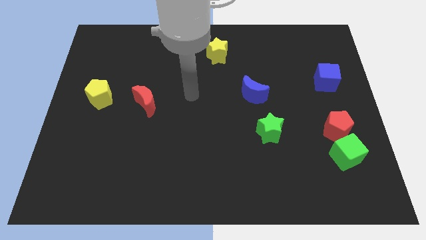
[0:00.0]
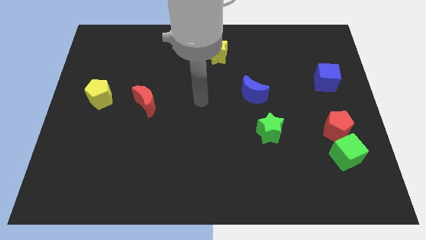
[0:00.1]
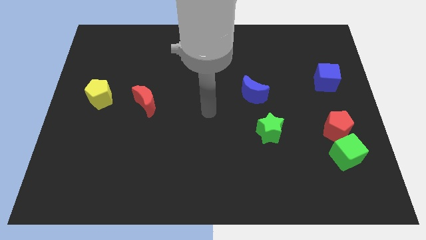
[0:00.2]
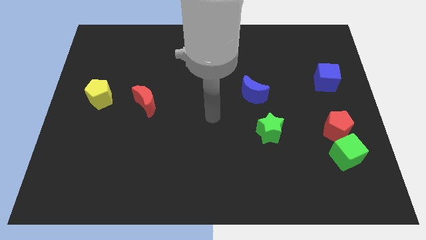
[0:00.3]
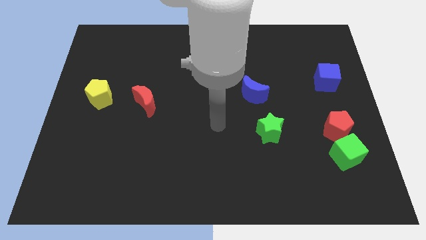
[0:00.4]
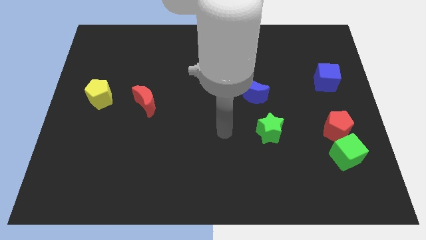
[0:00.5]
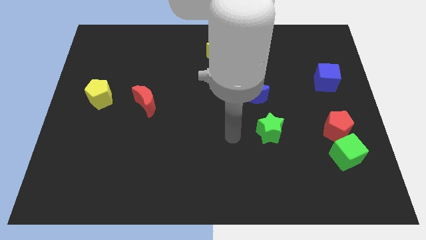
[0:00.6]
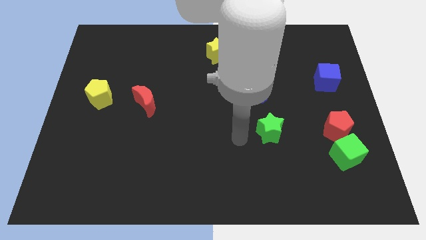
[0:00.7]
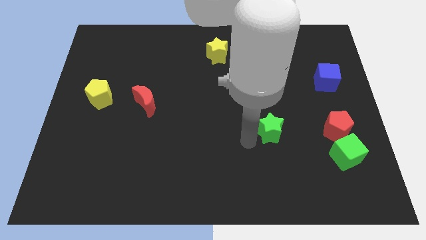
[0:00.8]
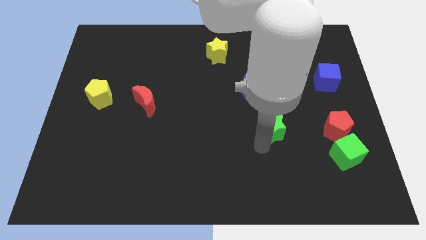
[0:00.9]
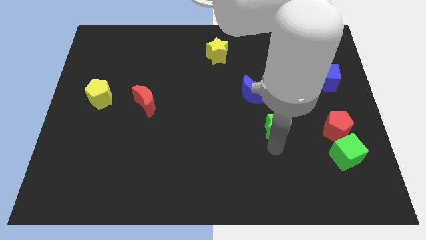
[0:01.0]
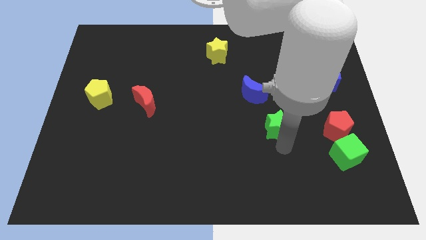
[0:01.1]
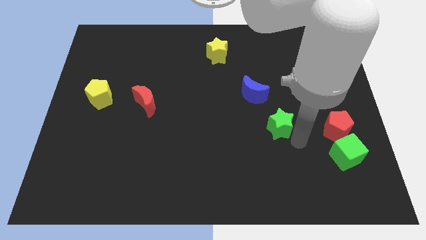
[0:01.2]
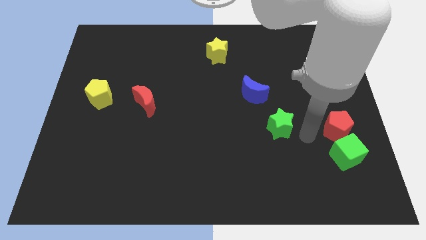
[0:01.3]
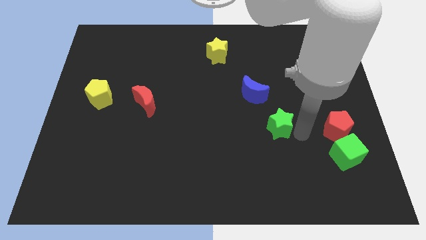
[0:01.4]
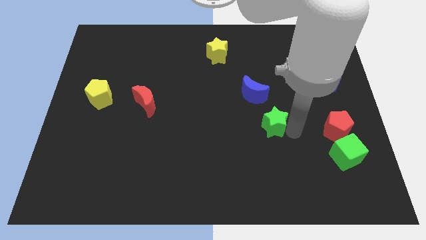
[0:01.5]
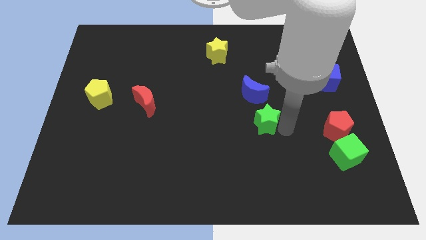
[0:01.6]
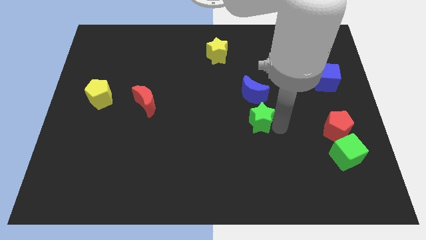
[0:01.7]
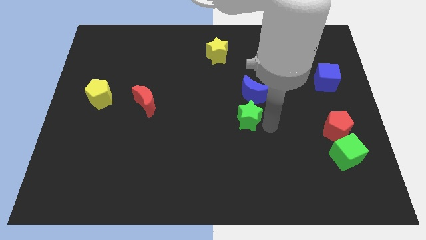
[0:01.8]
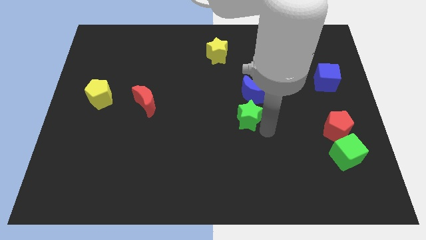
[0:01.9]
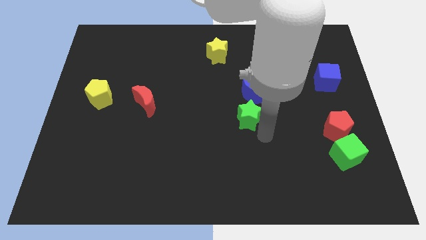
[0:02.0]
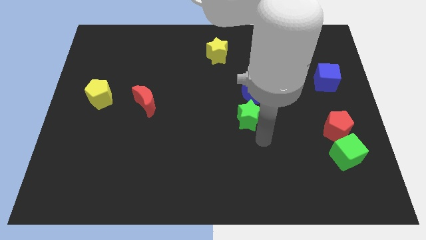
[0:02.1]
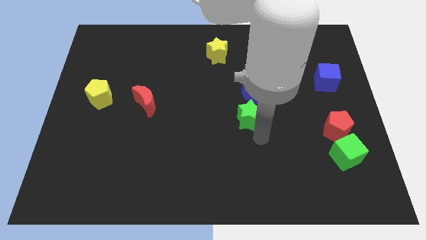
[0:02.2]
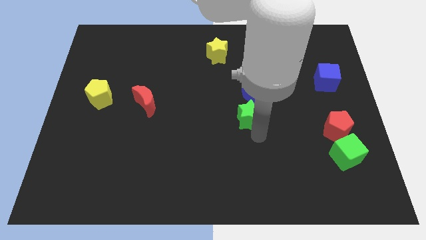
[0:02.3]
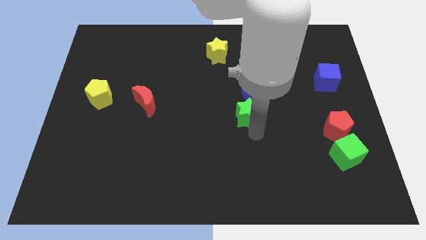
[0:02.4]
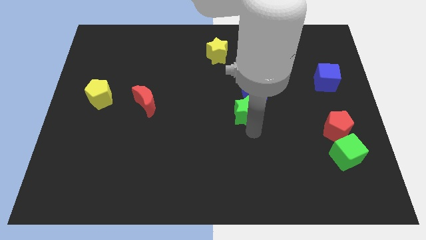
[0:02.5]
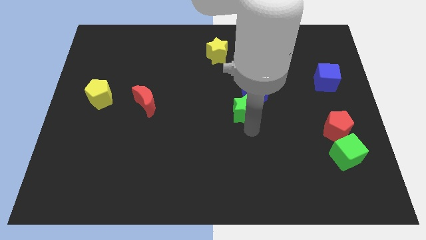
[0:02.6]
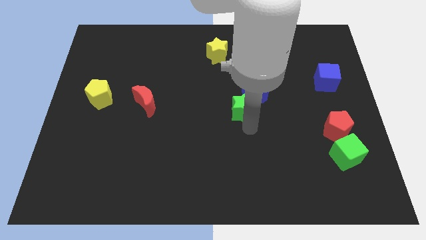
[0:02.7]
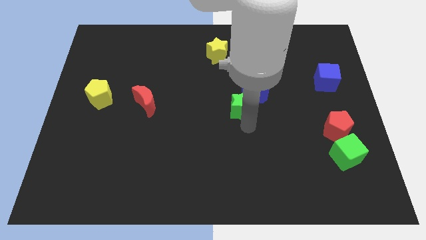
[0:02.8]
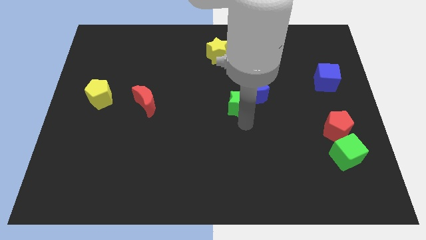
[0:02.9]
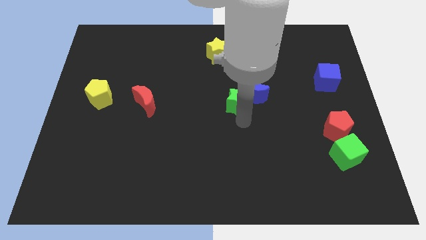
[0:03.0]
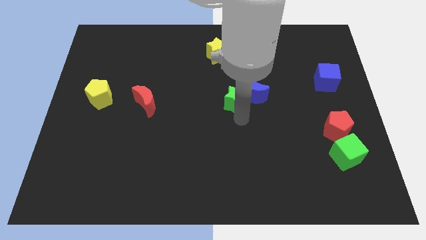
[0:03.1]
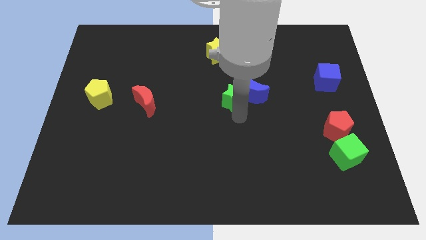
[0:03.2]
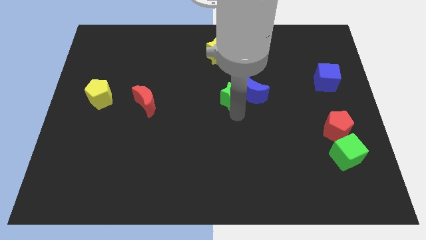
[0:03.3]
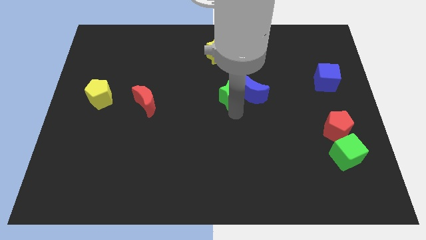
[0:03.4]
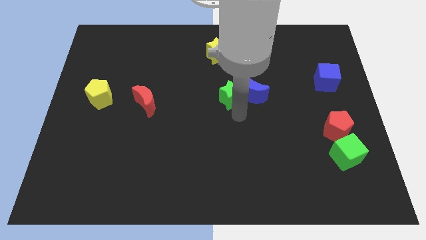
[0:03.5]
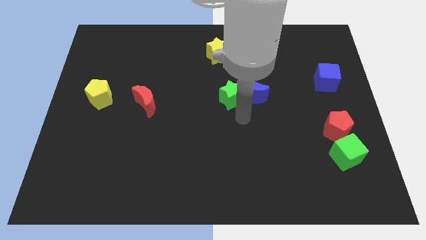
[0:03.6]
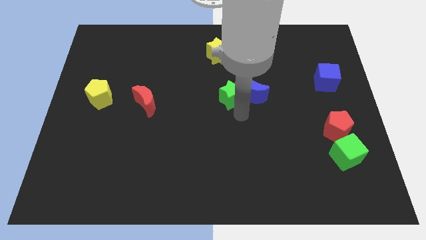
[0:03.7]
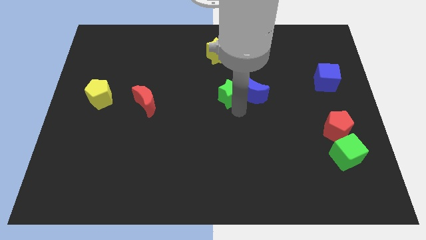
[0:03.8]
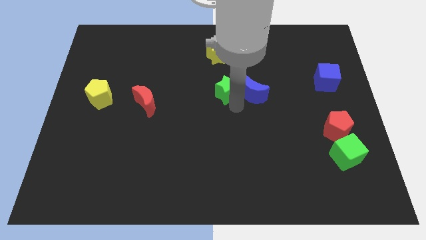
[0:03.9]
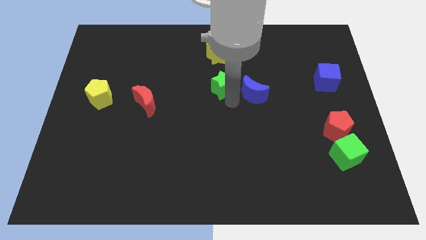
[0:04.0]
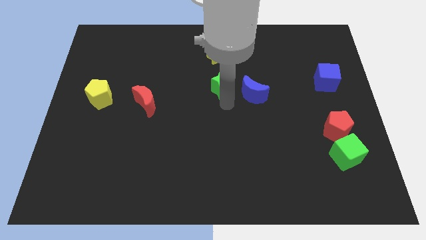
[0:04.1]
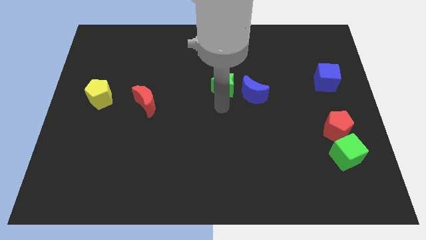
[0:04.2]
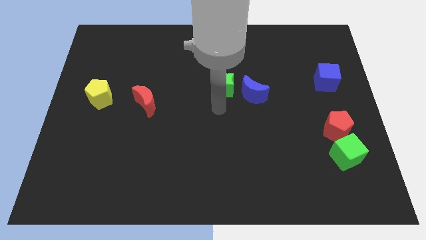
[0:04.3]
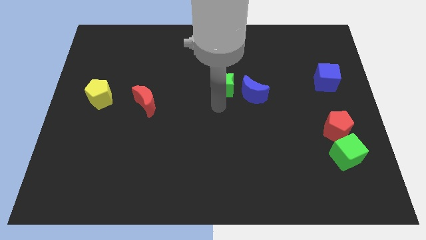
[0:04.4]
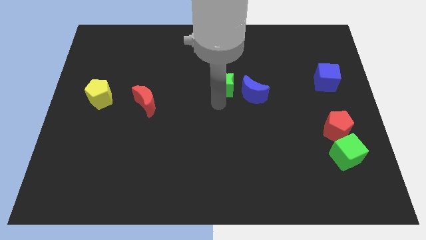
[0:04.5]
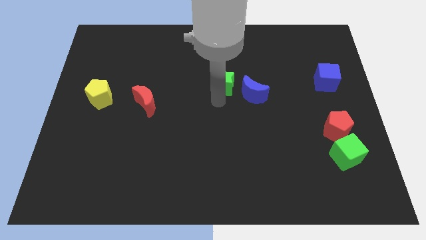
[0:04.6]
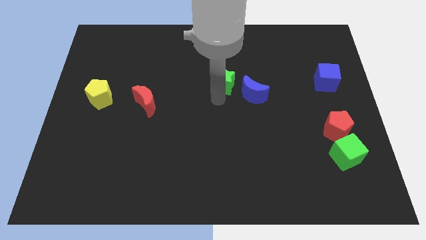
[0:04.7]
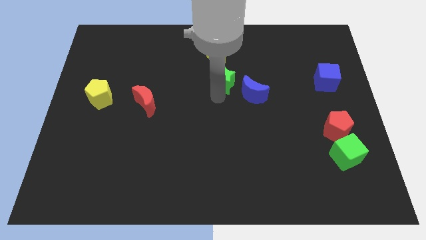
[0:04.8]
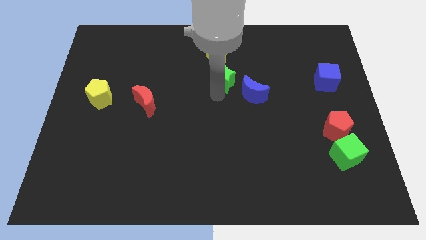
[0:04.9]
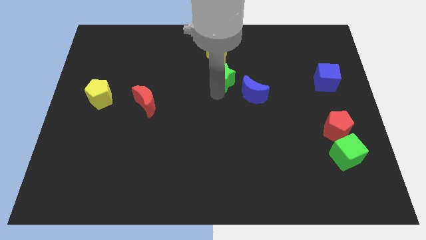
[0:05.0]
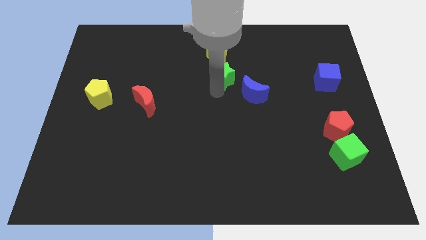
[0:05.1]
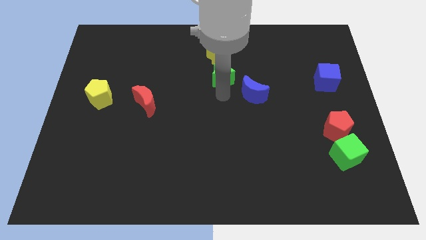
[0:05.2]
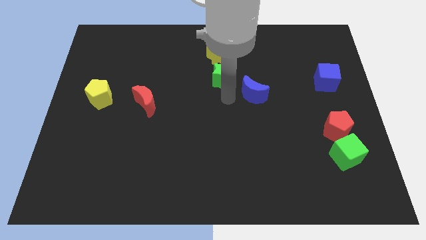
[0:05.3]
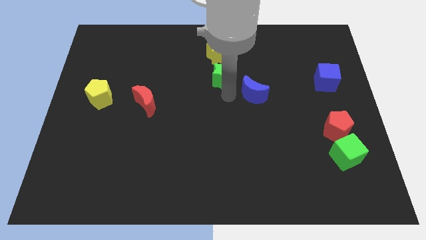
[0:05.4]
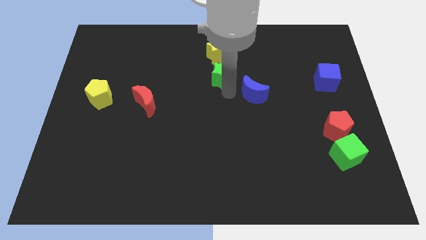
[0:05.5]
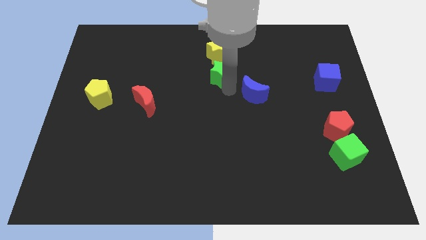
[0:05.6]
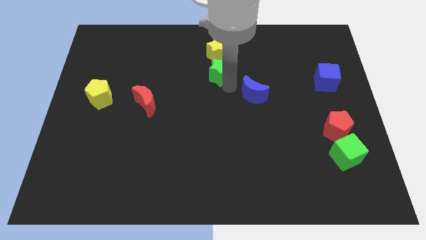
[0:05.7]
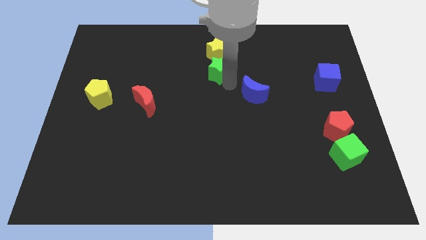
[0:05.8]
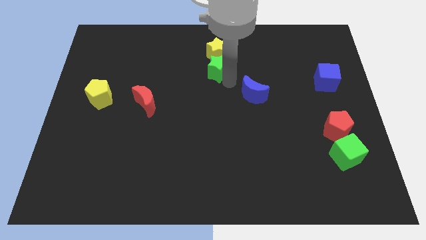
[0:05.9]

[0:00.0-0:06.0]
move the green star next to the yellow star

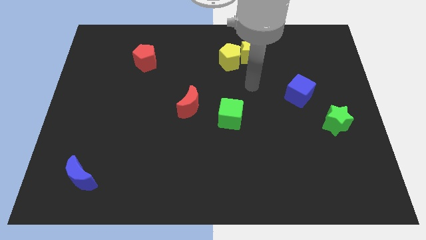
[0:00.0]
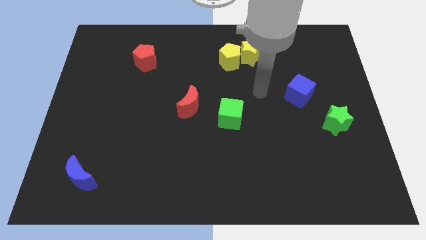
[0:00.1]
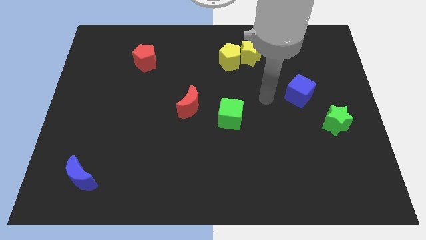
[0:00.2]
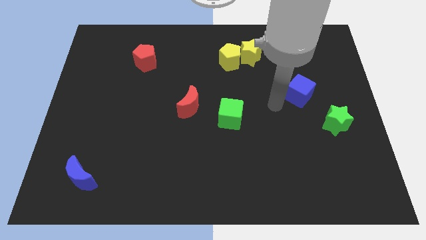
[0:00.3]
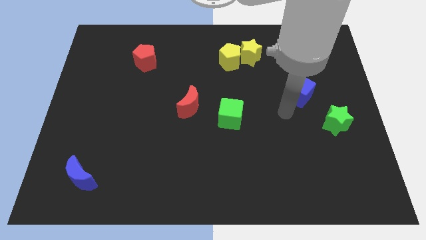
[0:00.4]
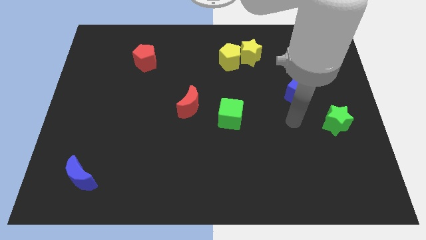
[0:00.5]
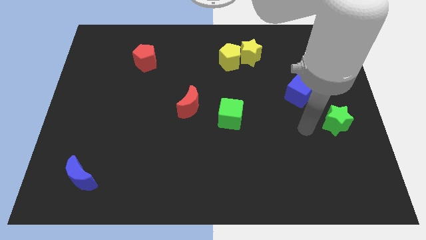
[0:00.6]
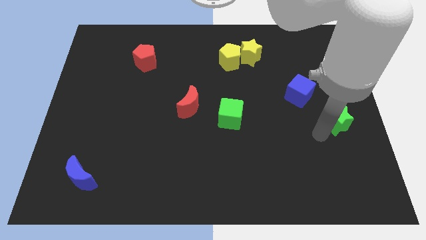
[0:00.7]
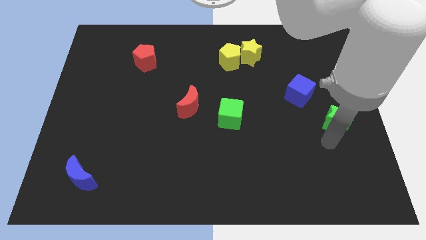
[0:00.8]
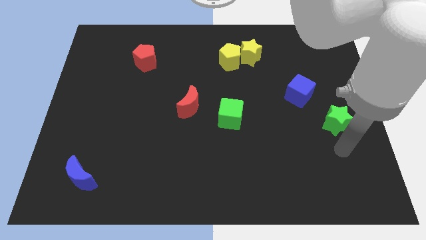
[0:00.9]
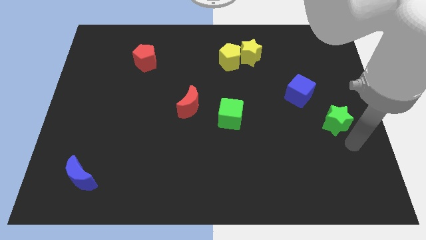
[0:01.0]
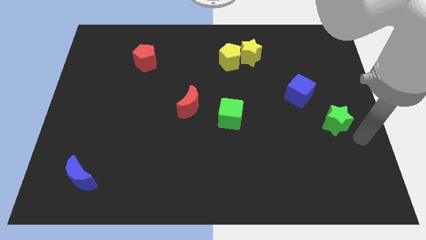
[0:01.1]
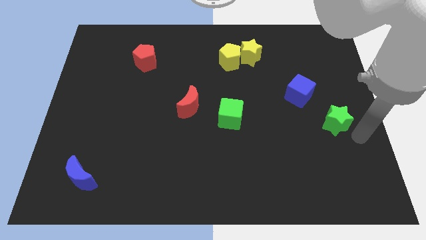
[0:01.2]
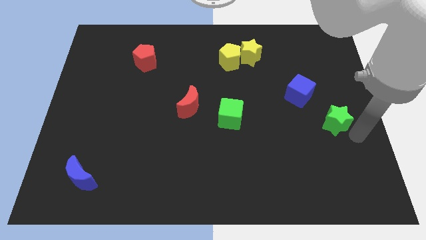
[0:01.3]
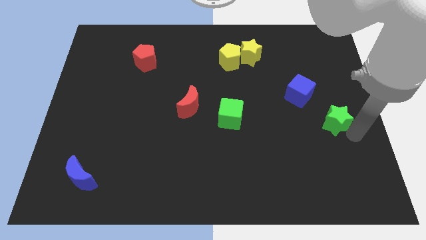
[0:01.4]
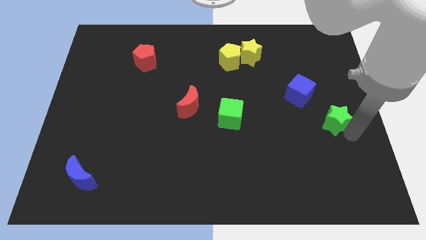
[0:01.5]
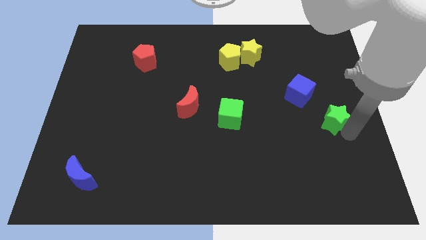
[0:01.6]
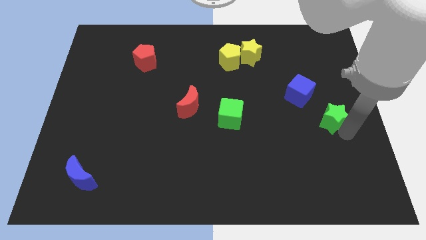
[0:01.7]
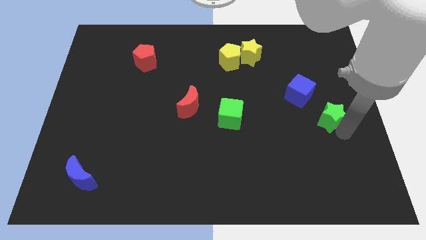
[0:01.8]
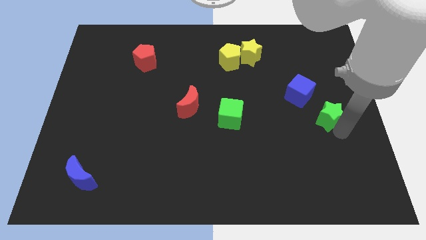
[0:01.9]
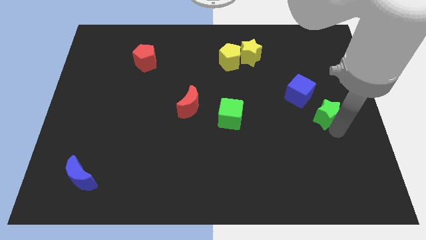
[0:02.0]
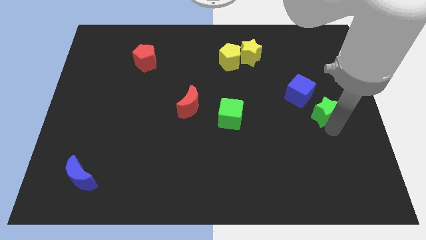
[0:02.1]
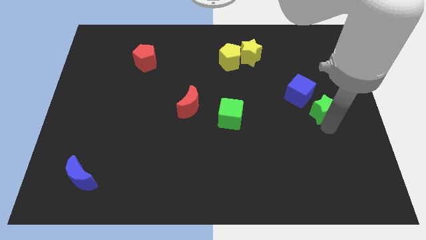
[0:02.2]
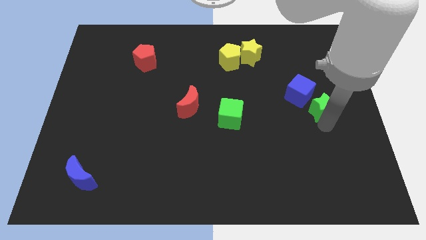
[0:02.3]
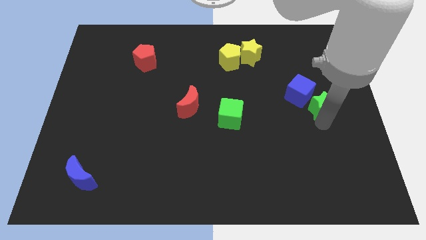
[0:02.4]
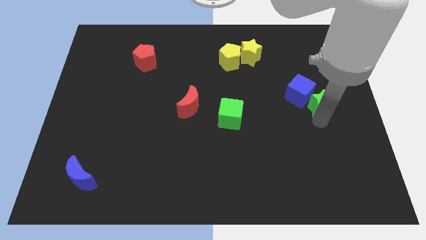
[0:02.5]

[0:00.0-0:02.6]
put the green star to the blue cube
